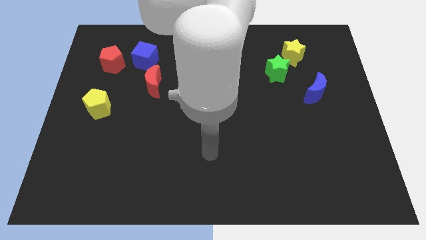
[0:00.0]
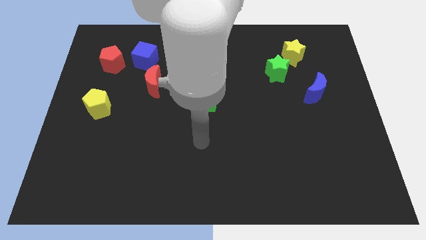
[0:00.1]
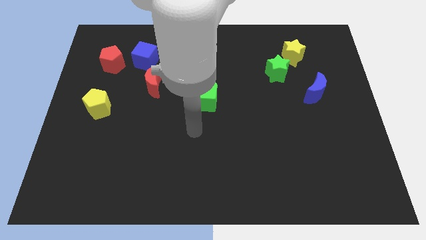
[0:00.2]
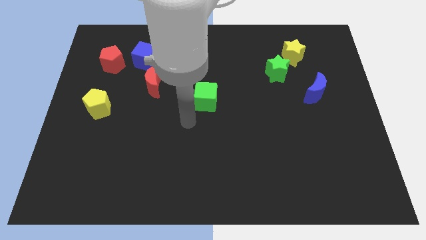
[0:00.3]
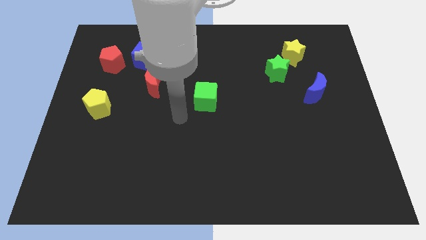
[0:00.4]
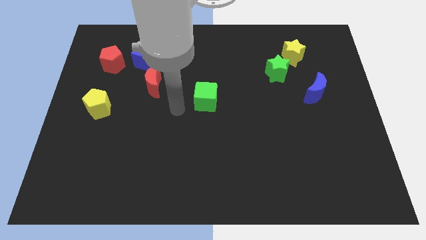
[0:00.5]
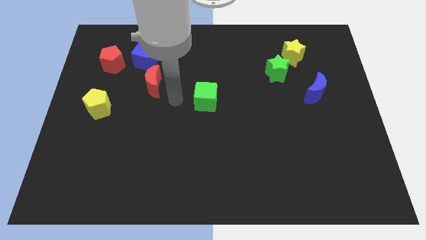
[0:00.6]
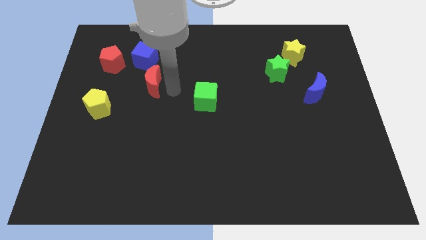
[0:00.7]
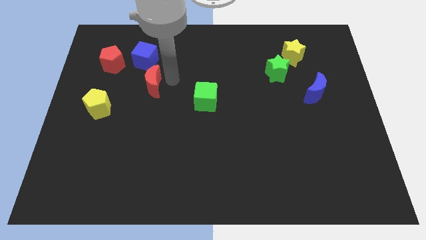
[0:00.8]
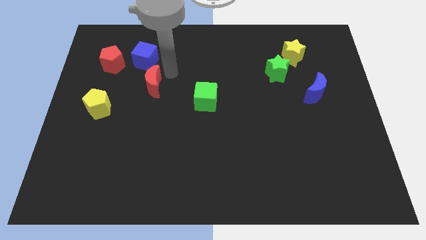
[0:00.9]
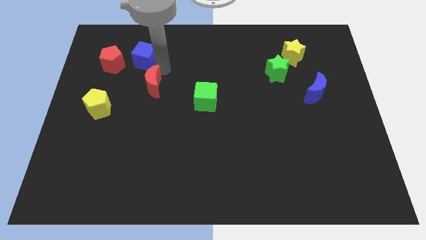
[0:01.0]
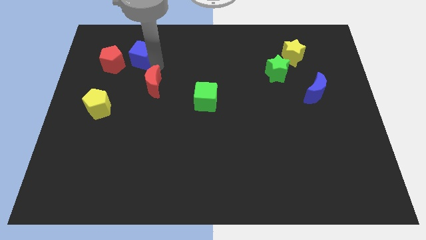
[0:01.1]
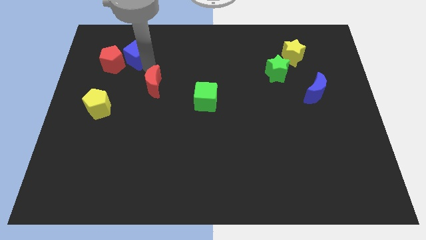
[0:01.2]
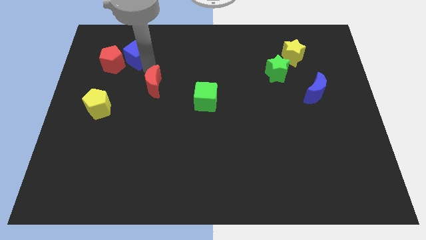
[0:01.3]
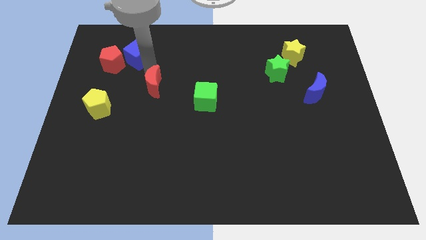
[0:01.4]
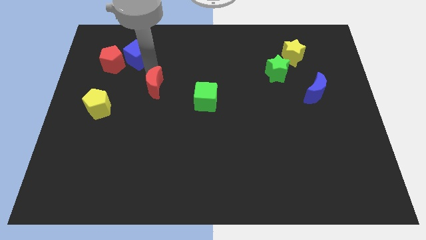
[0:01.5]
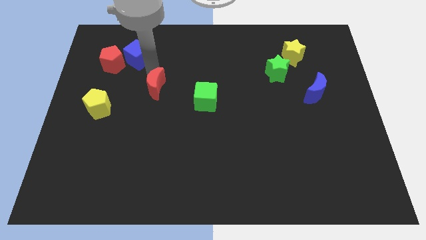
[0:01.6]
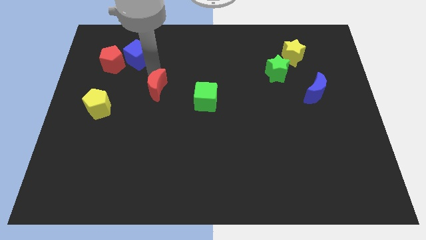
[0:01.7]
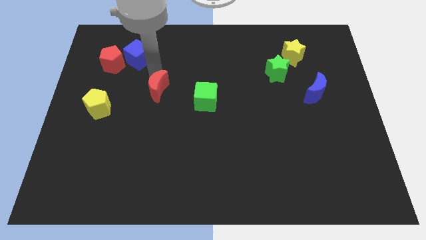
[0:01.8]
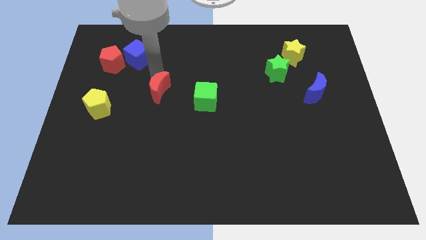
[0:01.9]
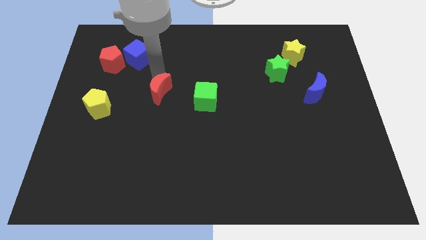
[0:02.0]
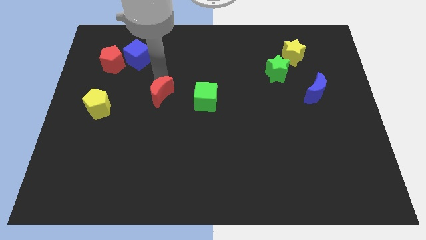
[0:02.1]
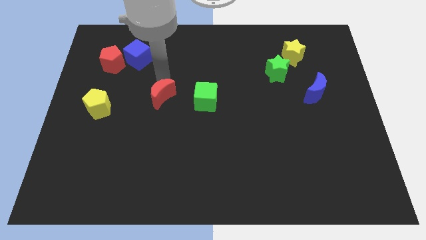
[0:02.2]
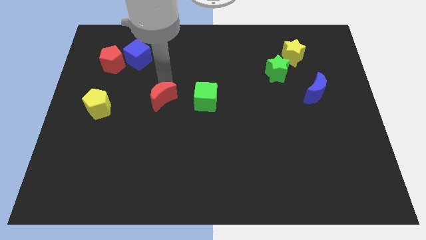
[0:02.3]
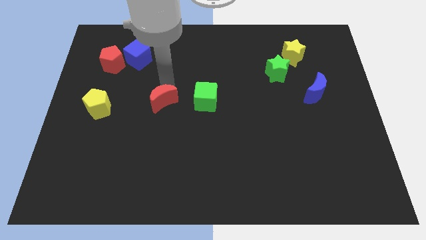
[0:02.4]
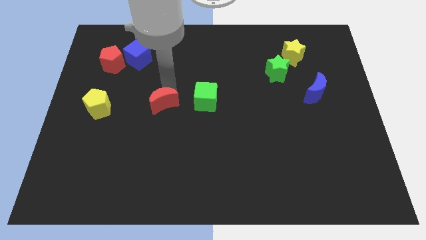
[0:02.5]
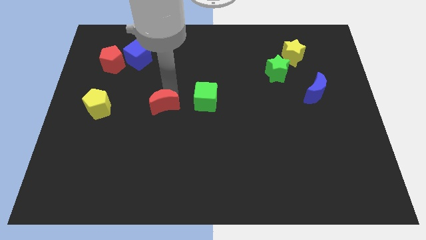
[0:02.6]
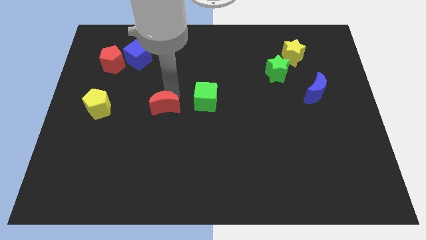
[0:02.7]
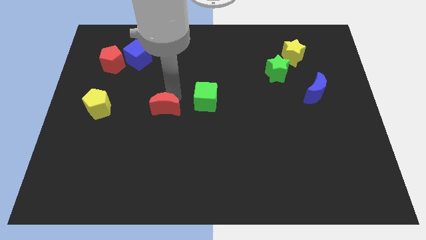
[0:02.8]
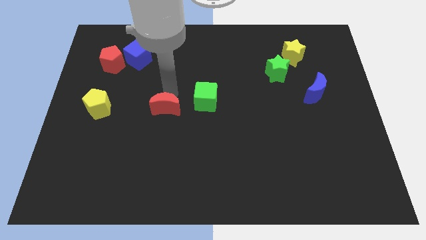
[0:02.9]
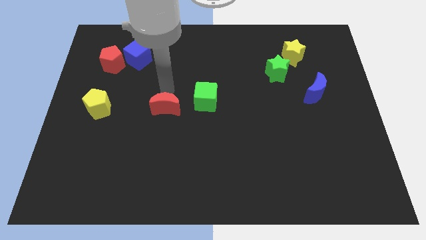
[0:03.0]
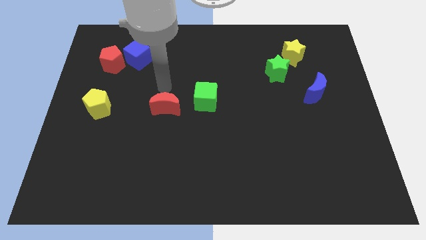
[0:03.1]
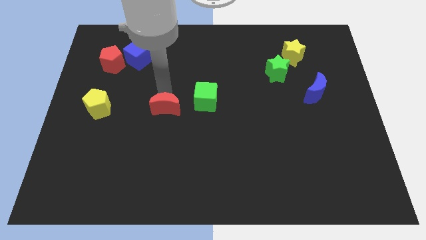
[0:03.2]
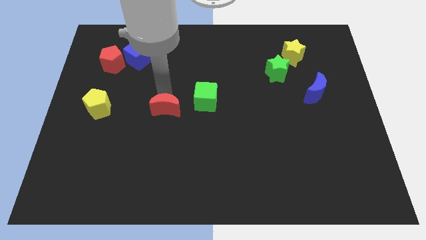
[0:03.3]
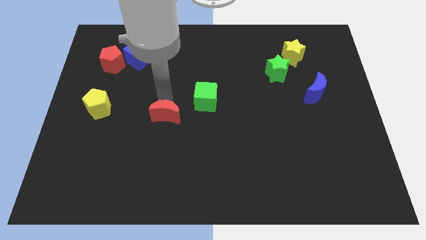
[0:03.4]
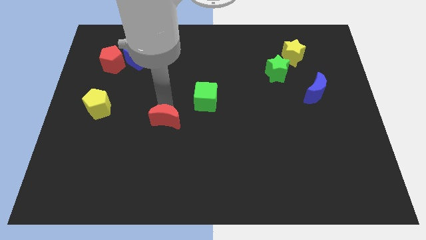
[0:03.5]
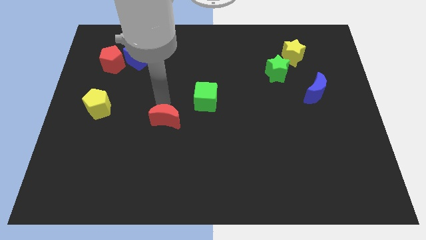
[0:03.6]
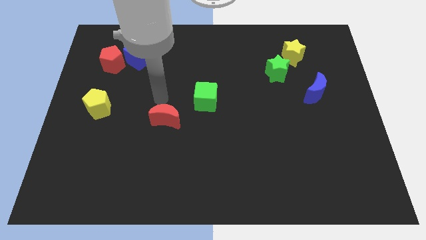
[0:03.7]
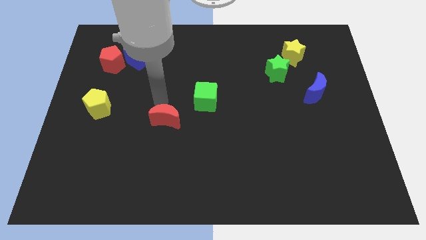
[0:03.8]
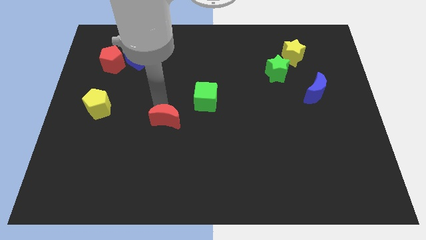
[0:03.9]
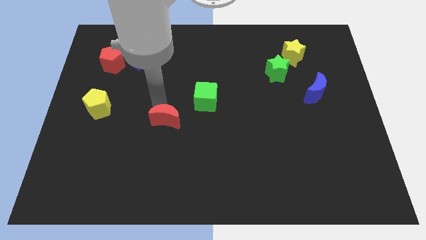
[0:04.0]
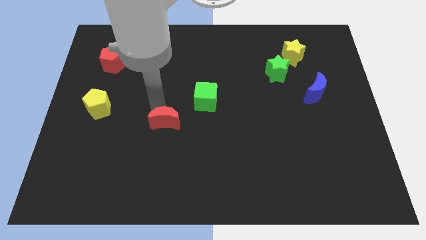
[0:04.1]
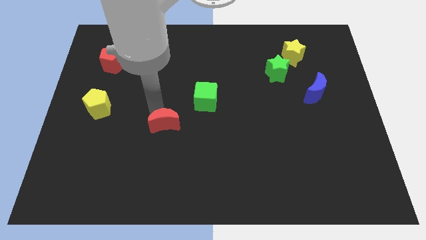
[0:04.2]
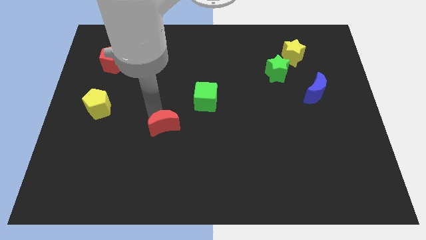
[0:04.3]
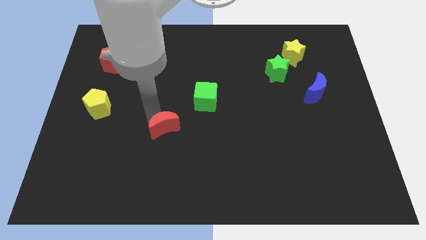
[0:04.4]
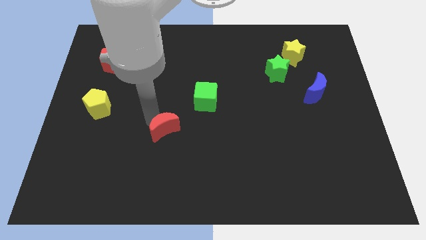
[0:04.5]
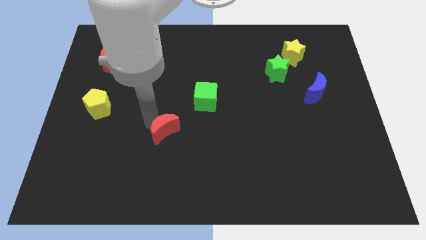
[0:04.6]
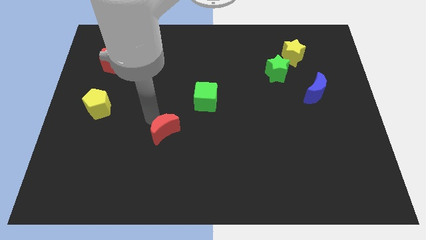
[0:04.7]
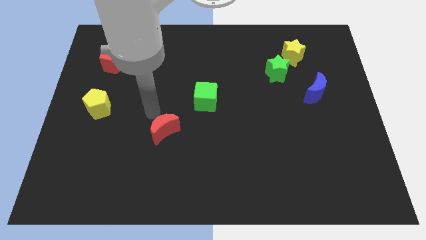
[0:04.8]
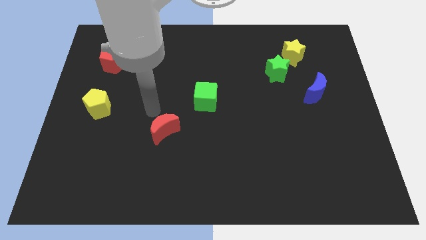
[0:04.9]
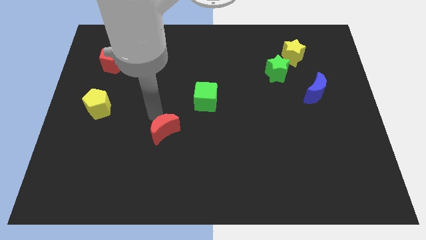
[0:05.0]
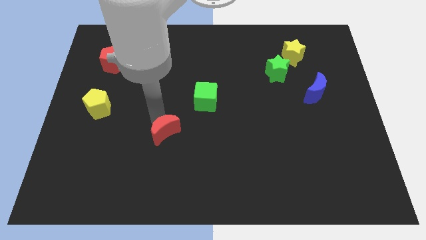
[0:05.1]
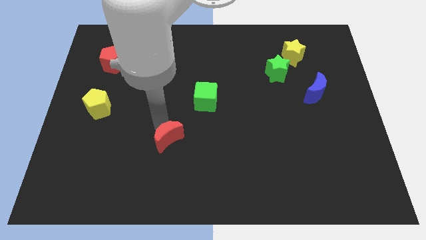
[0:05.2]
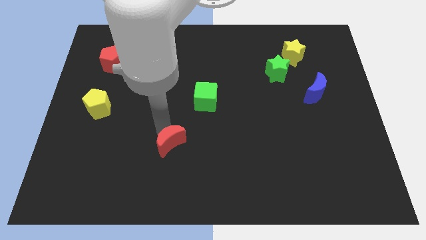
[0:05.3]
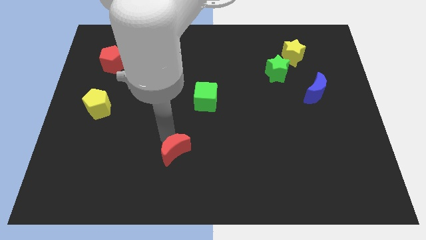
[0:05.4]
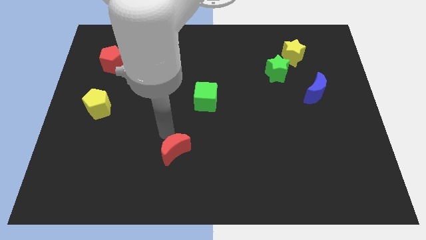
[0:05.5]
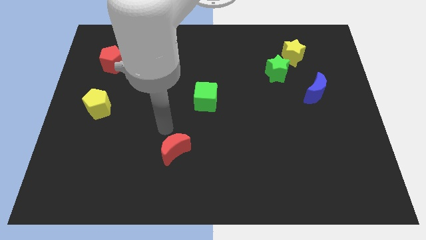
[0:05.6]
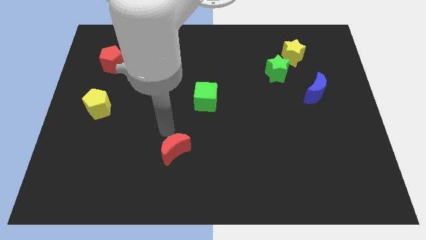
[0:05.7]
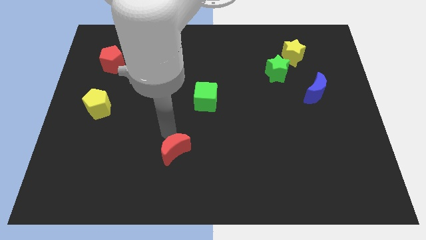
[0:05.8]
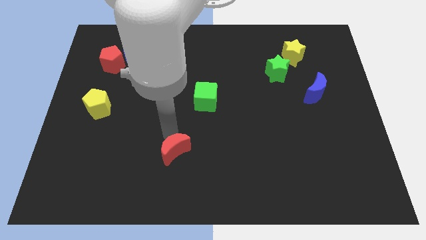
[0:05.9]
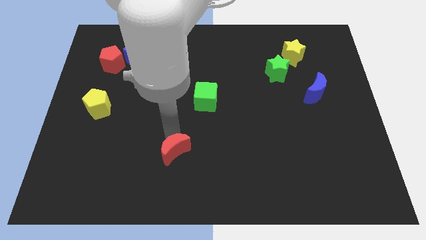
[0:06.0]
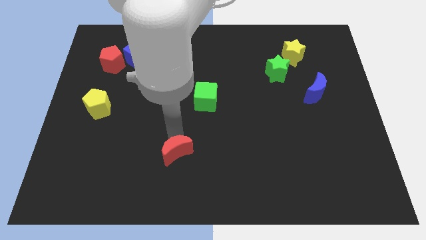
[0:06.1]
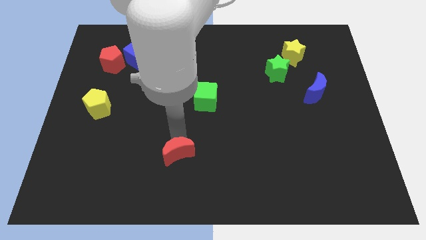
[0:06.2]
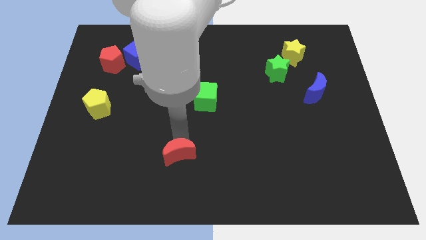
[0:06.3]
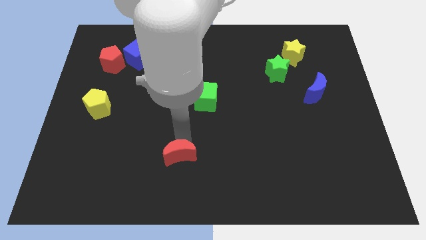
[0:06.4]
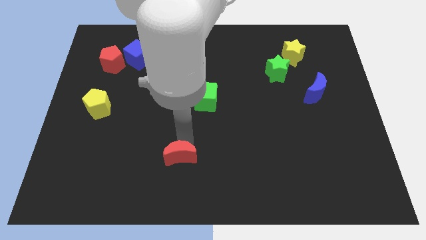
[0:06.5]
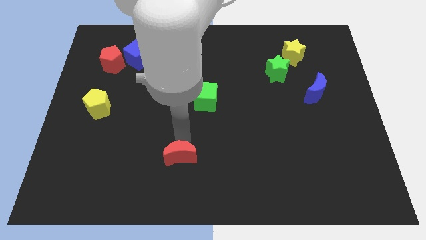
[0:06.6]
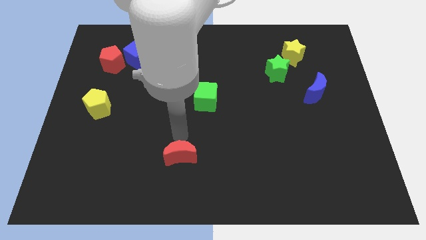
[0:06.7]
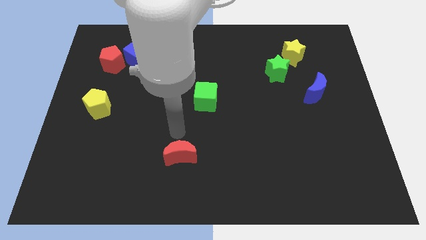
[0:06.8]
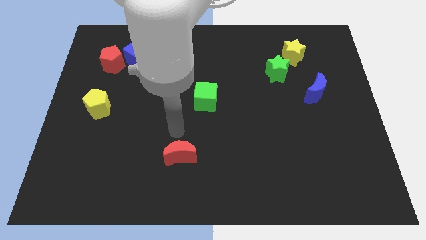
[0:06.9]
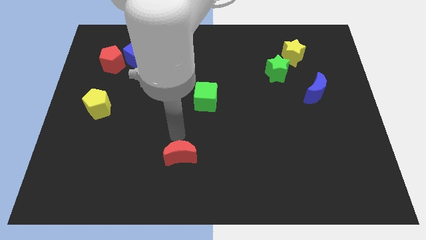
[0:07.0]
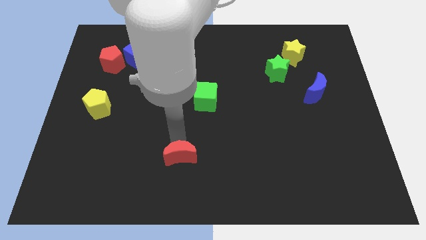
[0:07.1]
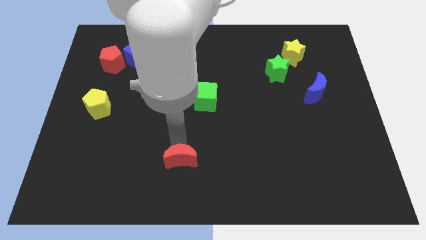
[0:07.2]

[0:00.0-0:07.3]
move the red moon to the bottom side
